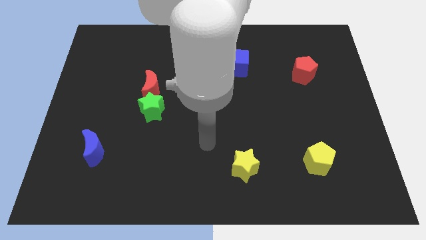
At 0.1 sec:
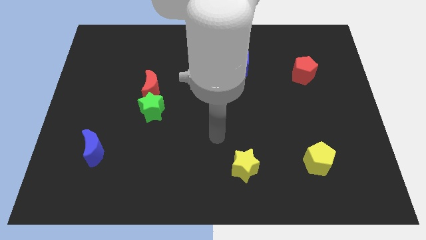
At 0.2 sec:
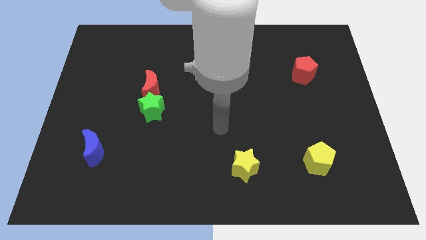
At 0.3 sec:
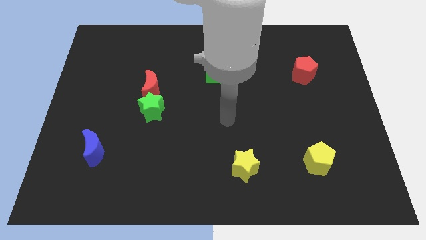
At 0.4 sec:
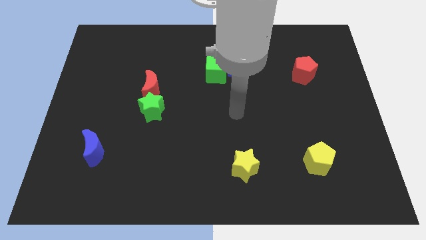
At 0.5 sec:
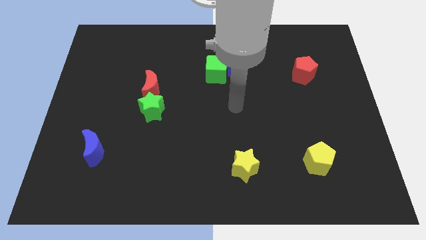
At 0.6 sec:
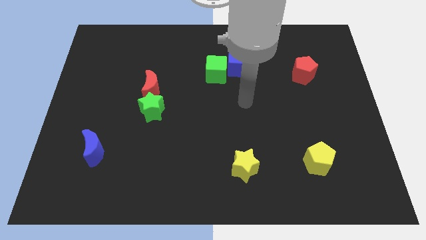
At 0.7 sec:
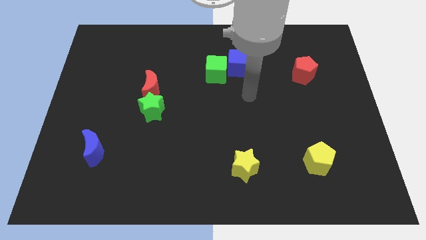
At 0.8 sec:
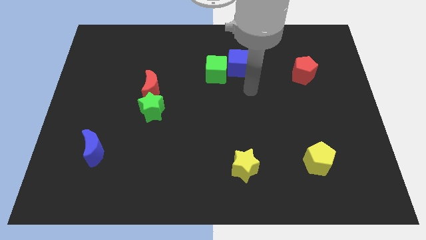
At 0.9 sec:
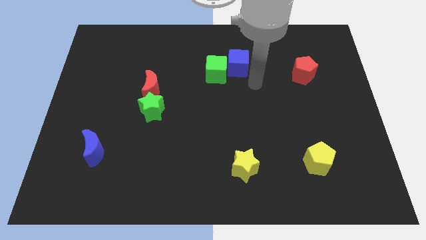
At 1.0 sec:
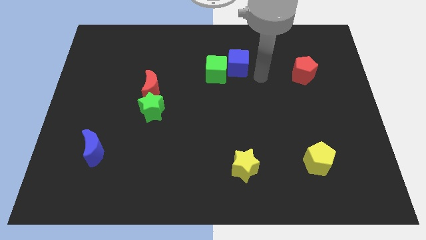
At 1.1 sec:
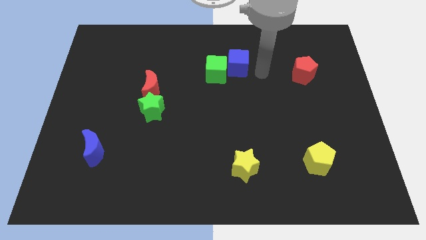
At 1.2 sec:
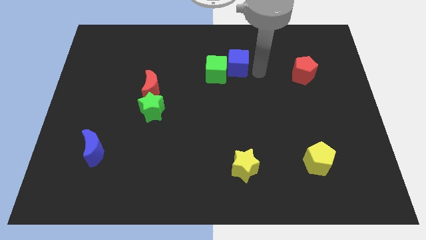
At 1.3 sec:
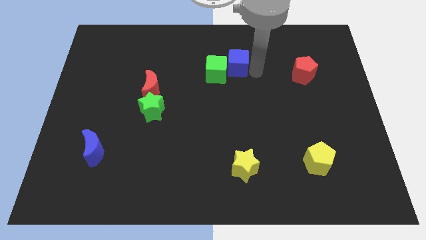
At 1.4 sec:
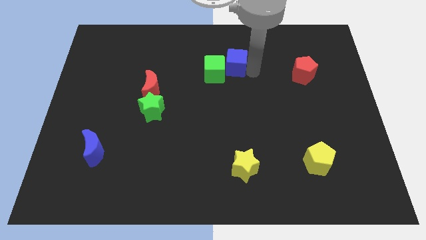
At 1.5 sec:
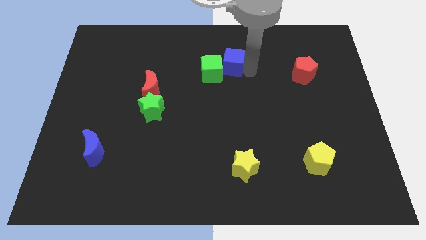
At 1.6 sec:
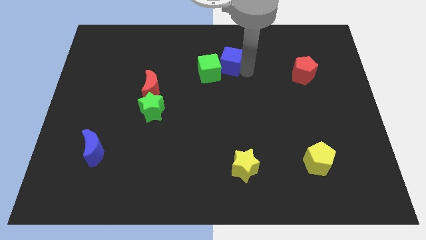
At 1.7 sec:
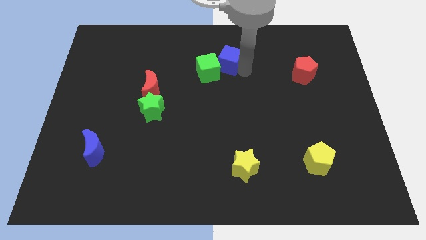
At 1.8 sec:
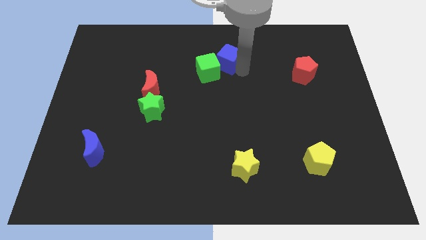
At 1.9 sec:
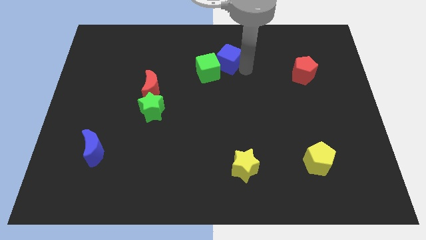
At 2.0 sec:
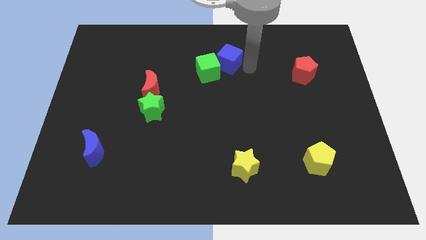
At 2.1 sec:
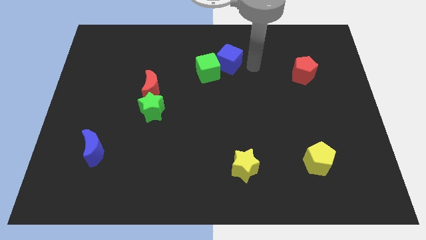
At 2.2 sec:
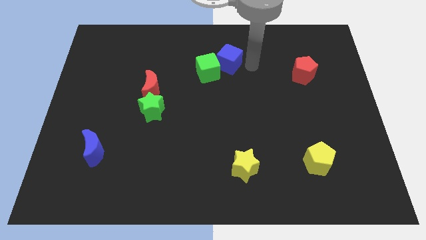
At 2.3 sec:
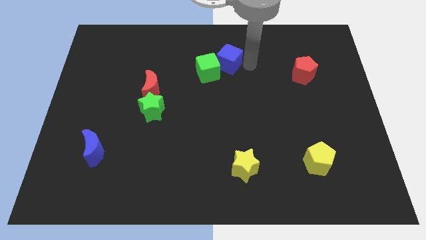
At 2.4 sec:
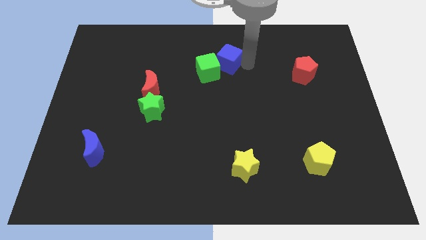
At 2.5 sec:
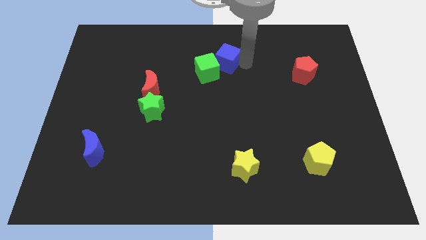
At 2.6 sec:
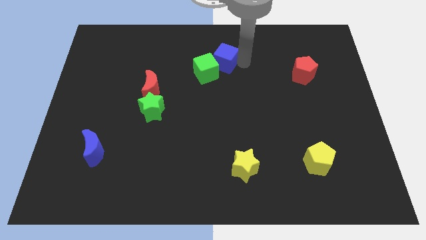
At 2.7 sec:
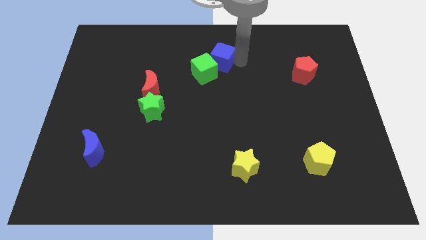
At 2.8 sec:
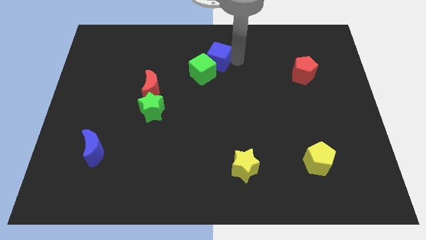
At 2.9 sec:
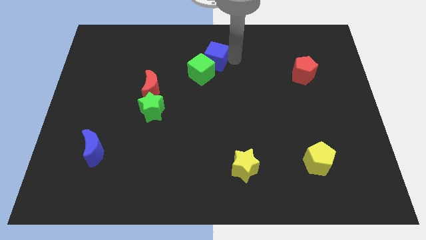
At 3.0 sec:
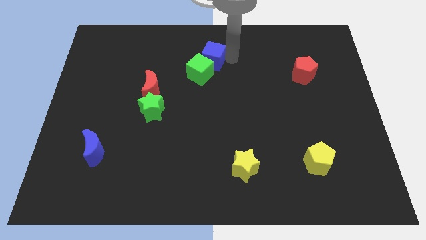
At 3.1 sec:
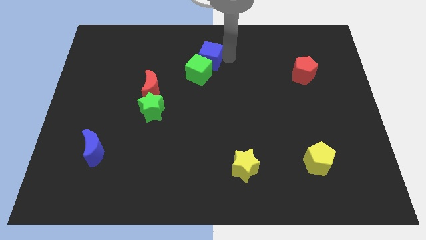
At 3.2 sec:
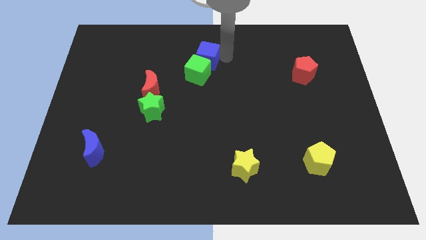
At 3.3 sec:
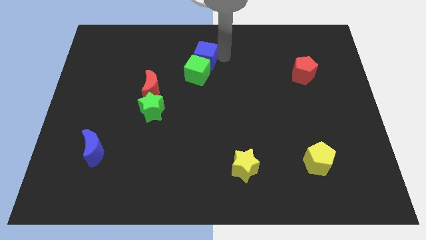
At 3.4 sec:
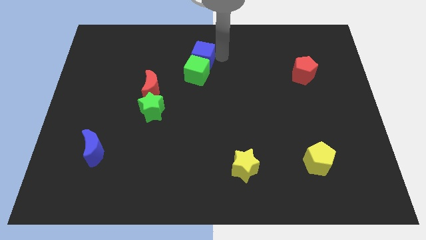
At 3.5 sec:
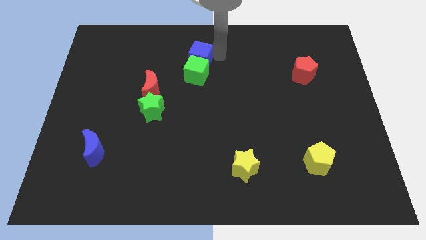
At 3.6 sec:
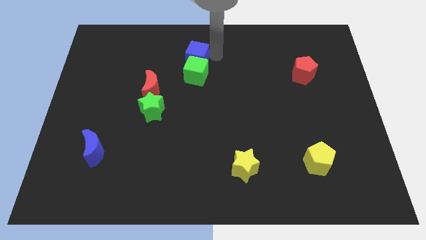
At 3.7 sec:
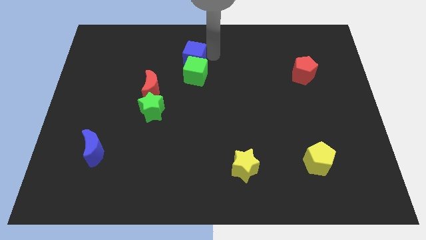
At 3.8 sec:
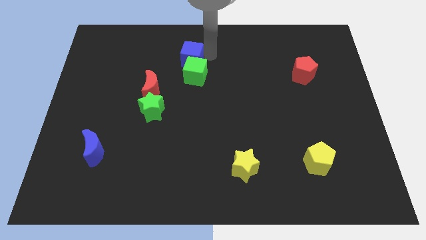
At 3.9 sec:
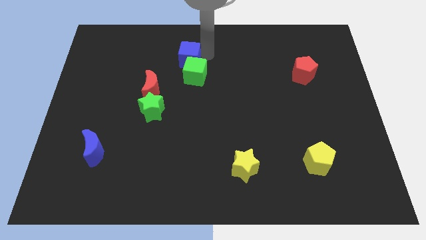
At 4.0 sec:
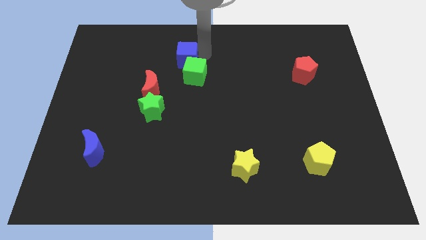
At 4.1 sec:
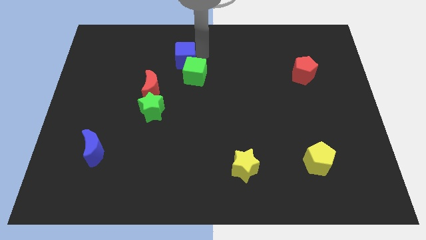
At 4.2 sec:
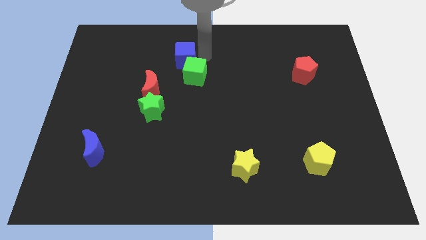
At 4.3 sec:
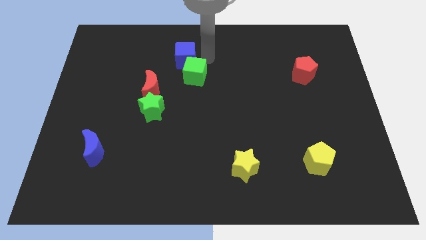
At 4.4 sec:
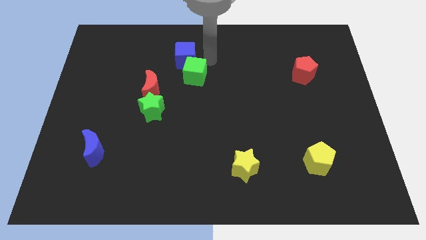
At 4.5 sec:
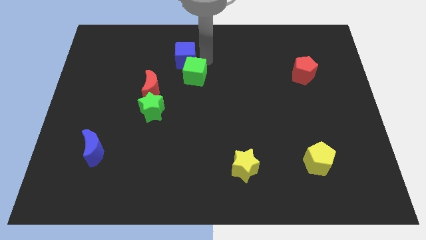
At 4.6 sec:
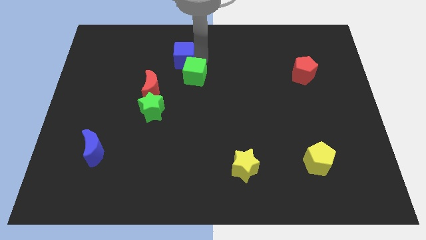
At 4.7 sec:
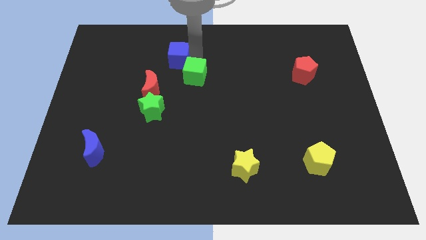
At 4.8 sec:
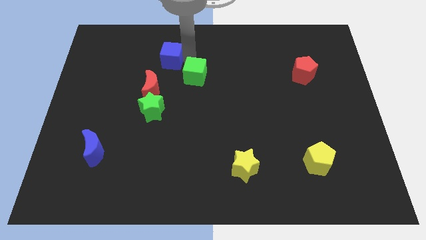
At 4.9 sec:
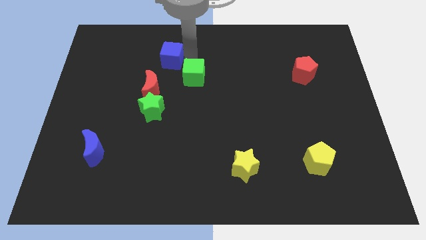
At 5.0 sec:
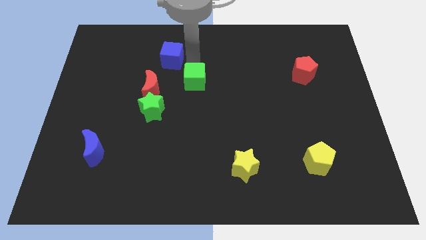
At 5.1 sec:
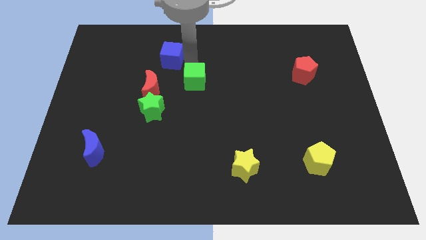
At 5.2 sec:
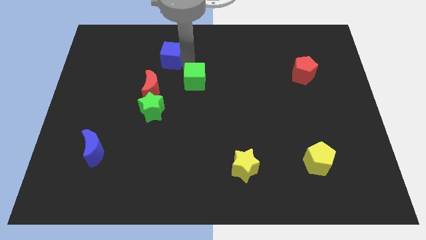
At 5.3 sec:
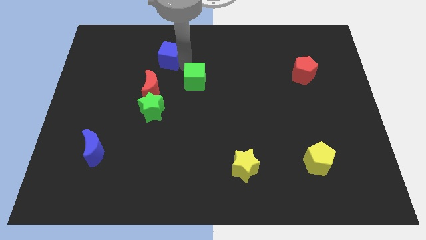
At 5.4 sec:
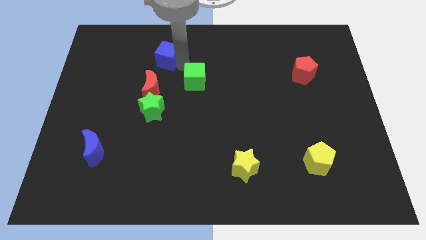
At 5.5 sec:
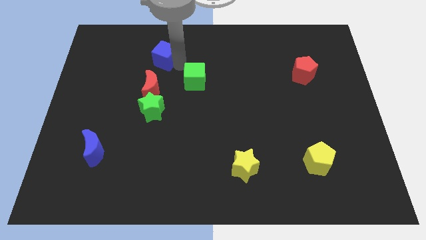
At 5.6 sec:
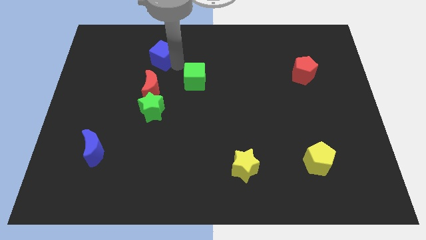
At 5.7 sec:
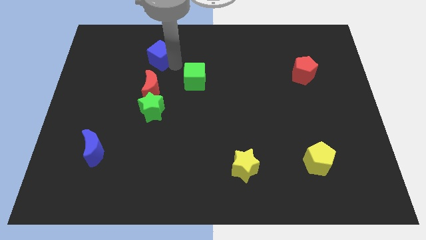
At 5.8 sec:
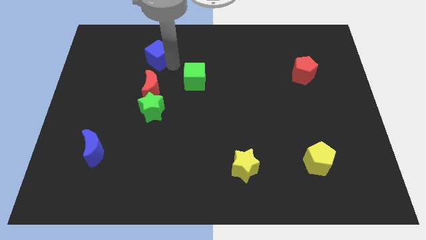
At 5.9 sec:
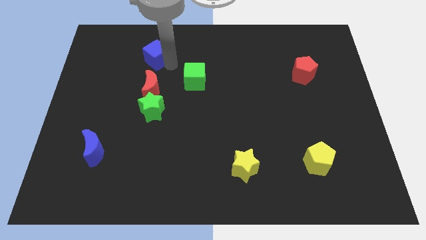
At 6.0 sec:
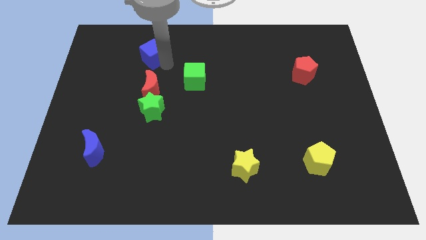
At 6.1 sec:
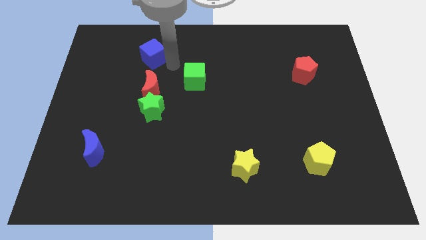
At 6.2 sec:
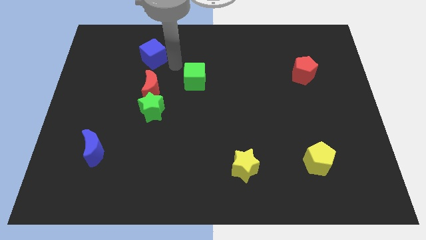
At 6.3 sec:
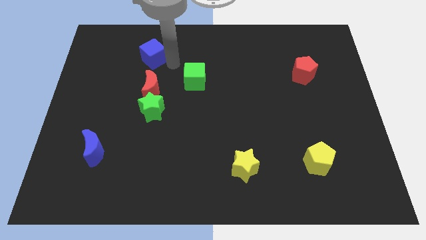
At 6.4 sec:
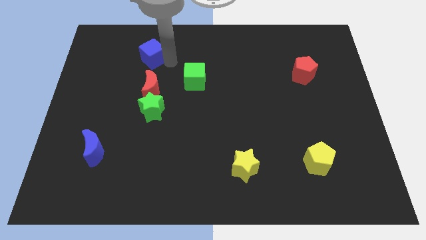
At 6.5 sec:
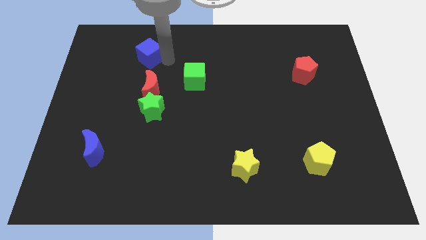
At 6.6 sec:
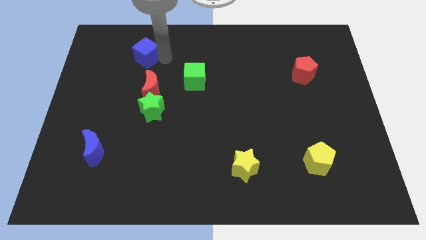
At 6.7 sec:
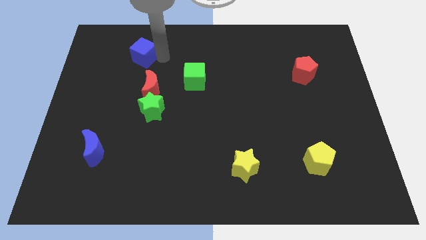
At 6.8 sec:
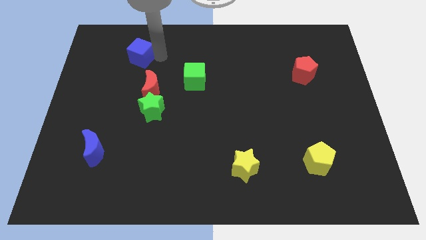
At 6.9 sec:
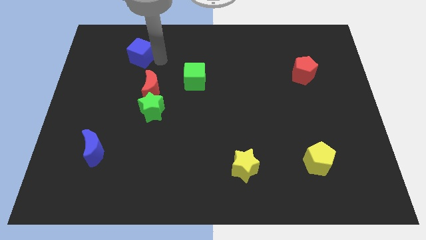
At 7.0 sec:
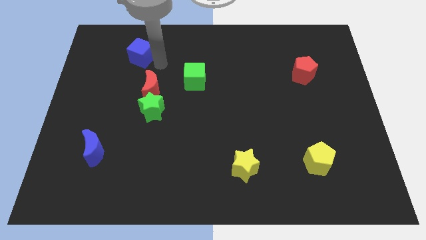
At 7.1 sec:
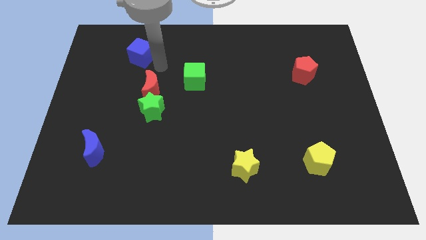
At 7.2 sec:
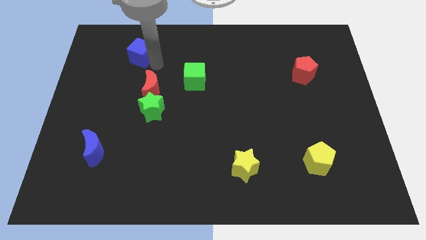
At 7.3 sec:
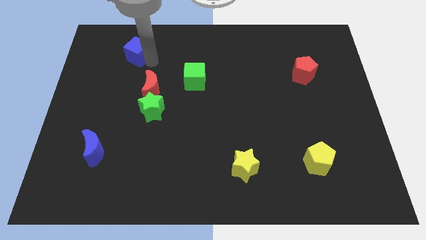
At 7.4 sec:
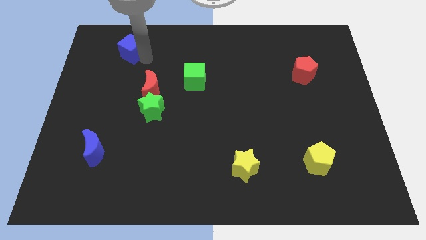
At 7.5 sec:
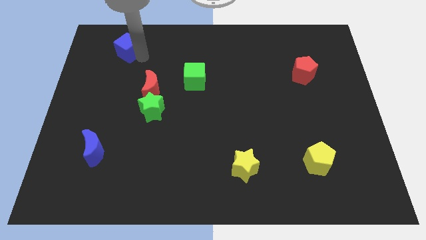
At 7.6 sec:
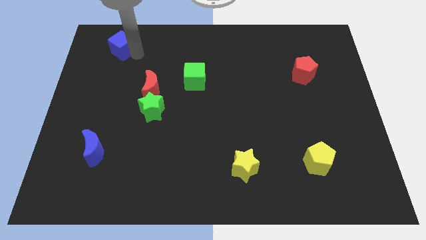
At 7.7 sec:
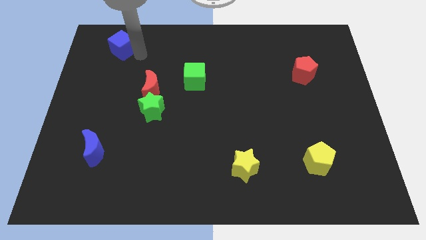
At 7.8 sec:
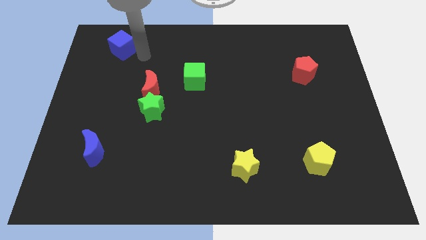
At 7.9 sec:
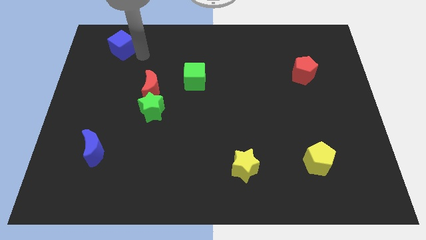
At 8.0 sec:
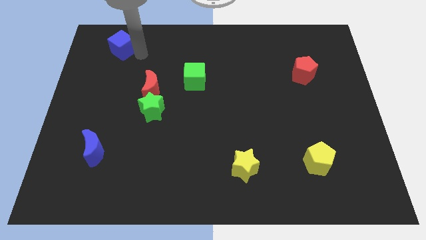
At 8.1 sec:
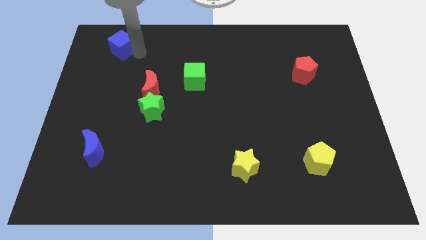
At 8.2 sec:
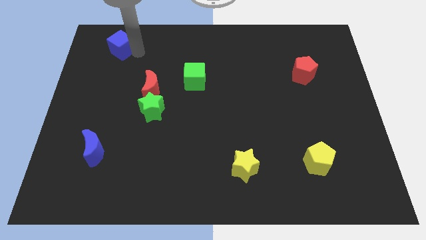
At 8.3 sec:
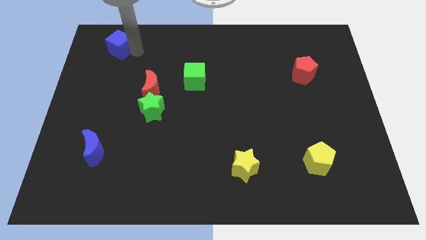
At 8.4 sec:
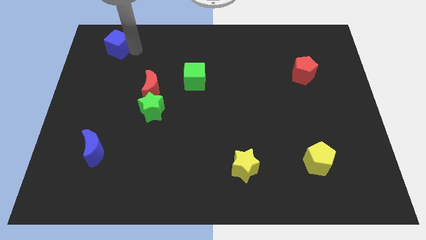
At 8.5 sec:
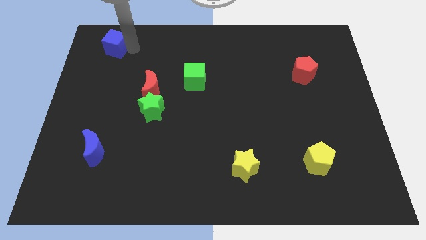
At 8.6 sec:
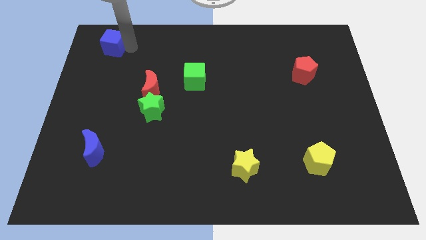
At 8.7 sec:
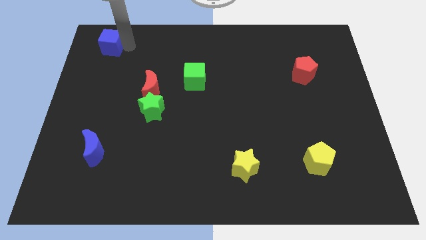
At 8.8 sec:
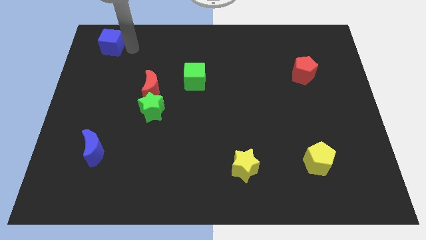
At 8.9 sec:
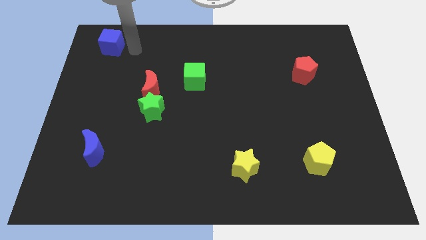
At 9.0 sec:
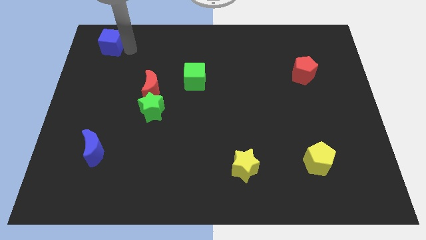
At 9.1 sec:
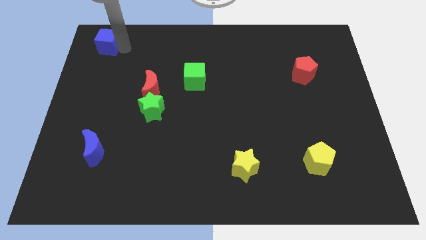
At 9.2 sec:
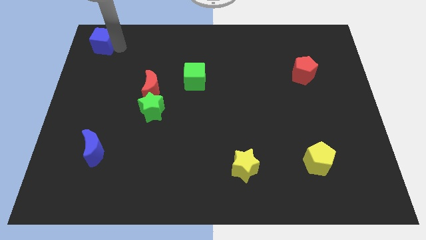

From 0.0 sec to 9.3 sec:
push the blue cube to the top left of the board
